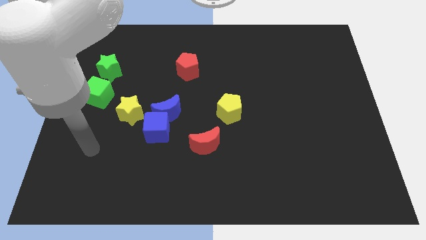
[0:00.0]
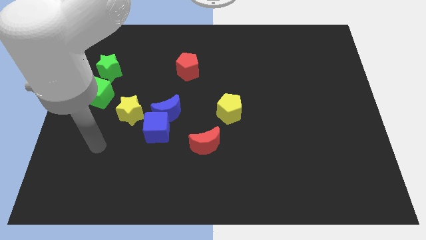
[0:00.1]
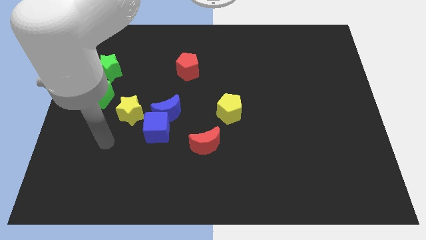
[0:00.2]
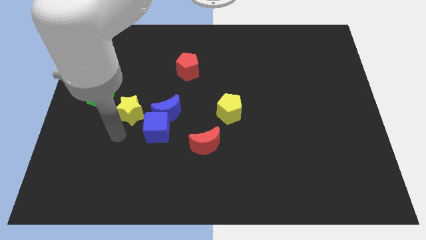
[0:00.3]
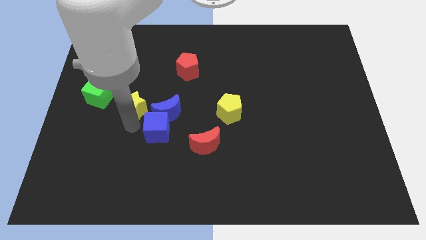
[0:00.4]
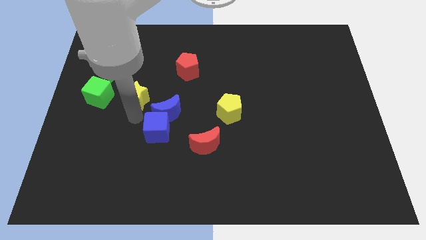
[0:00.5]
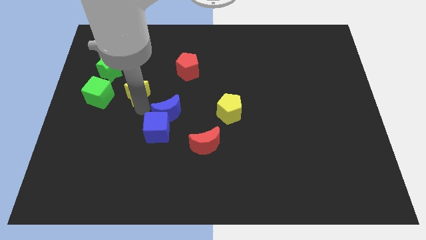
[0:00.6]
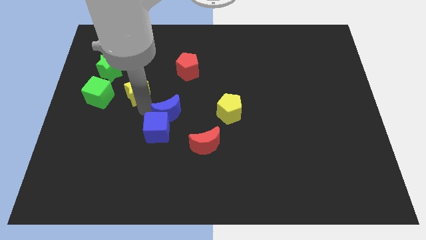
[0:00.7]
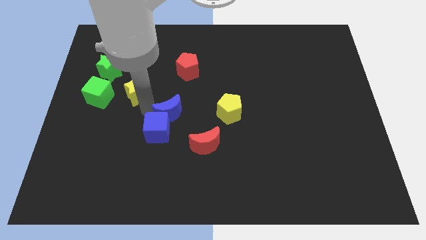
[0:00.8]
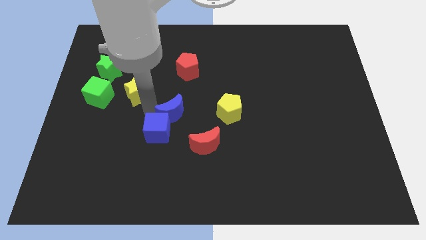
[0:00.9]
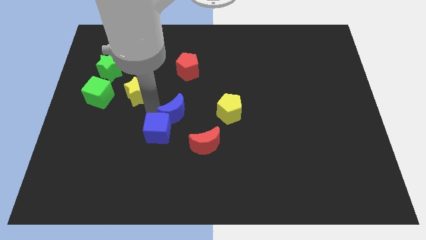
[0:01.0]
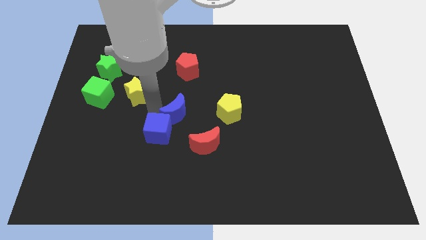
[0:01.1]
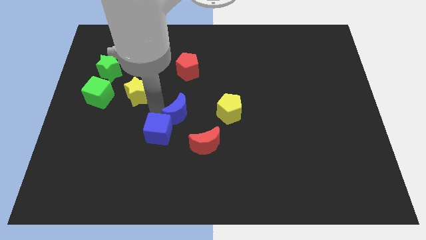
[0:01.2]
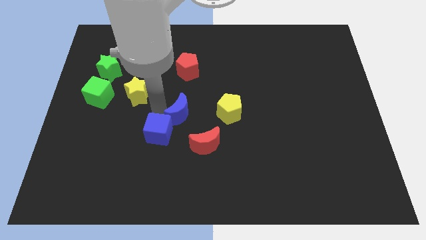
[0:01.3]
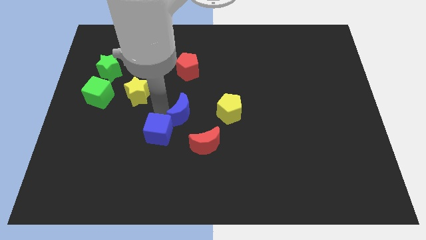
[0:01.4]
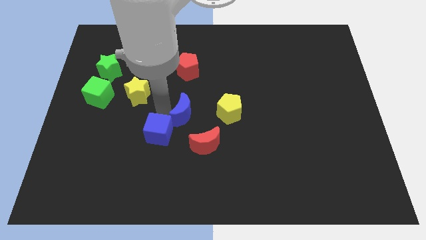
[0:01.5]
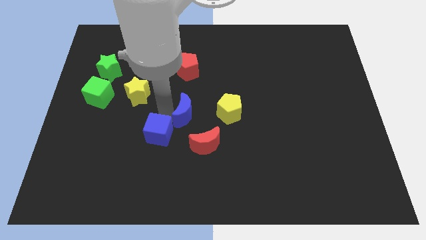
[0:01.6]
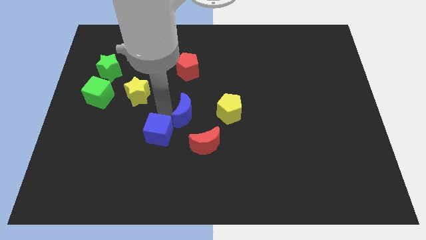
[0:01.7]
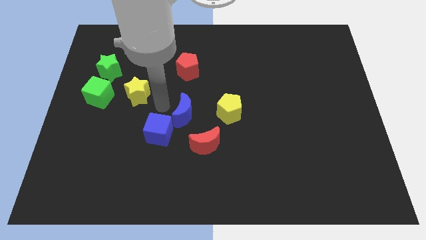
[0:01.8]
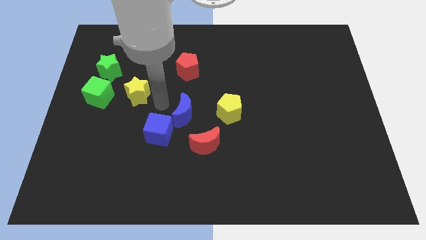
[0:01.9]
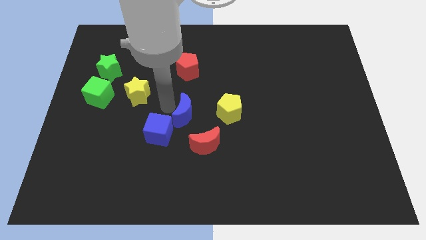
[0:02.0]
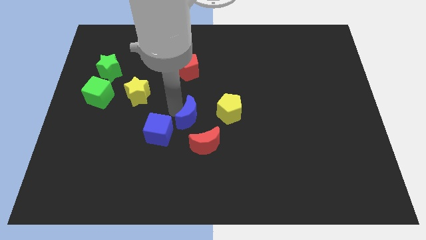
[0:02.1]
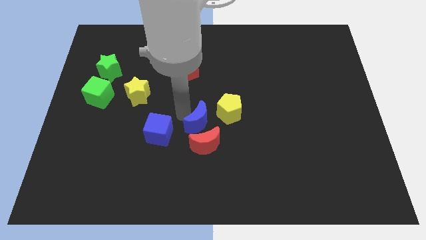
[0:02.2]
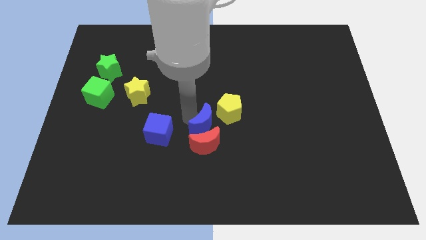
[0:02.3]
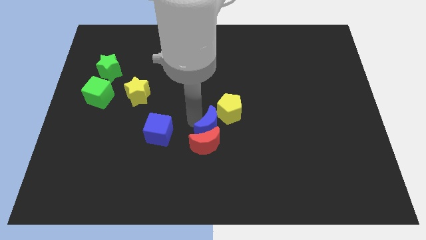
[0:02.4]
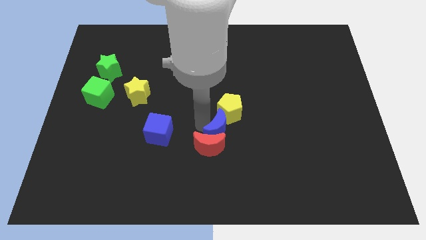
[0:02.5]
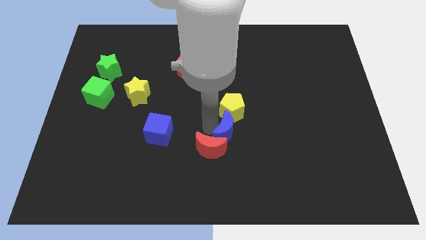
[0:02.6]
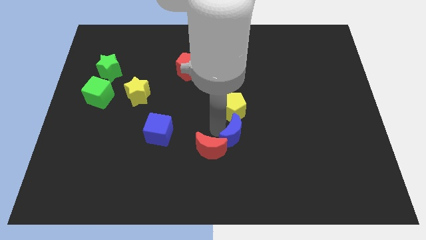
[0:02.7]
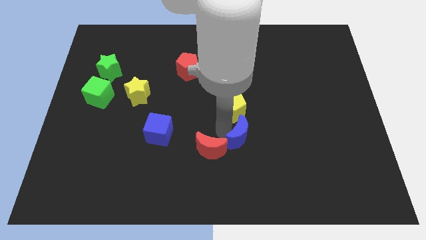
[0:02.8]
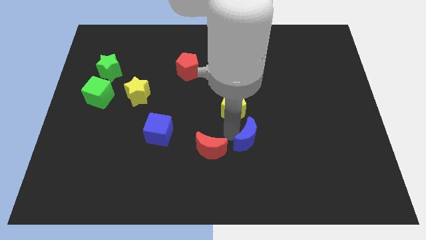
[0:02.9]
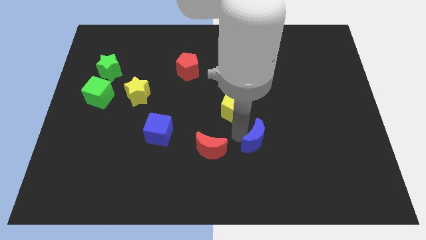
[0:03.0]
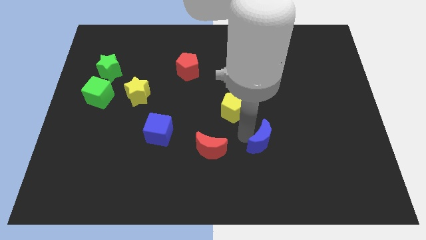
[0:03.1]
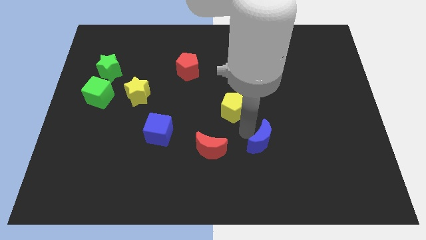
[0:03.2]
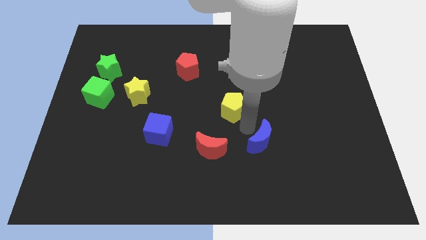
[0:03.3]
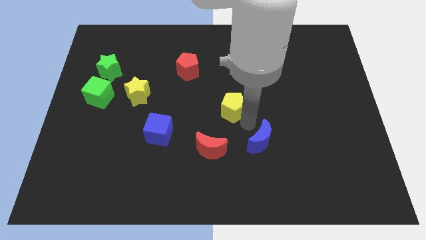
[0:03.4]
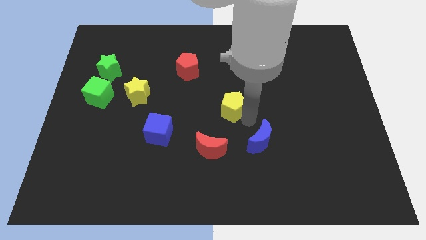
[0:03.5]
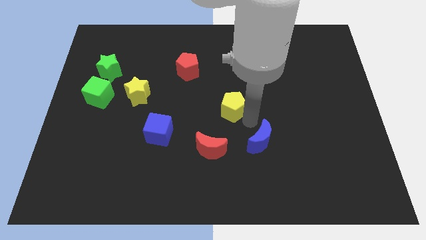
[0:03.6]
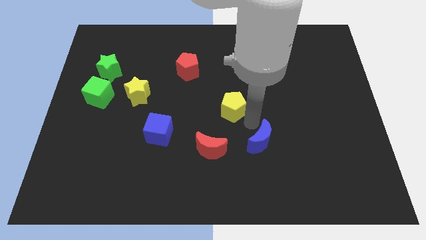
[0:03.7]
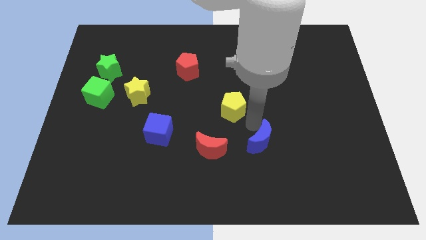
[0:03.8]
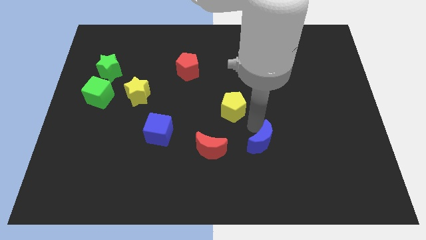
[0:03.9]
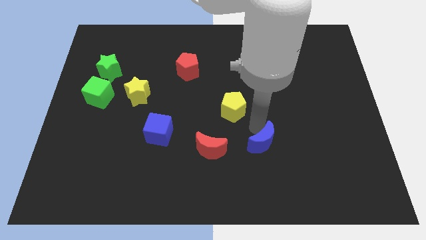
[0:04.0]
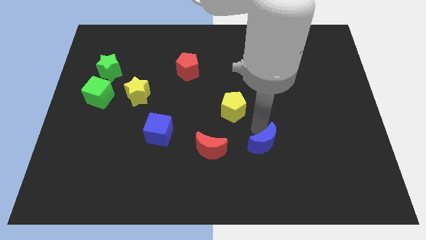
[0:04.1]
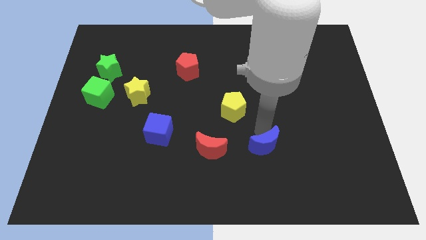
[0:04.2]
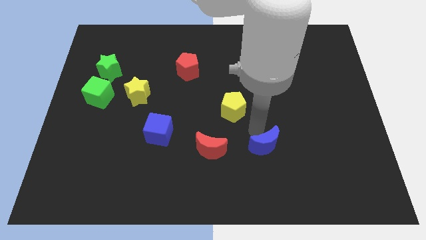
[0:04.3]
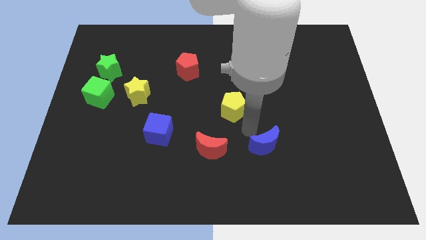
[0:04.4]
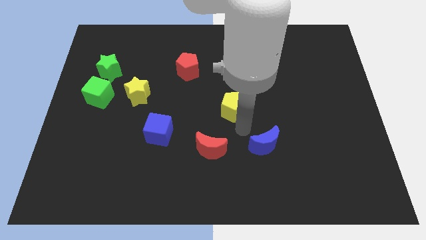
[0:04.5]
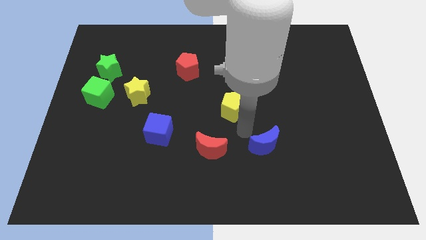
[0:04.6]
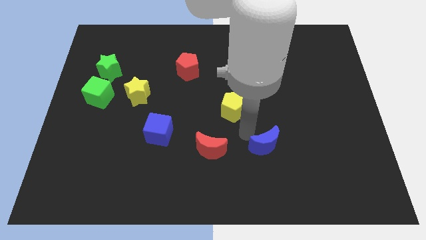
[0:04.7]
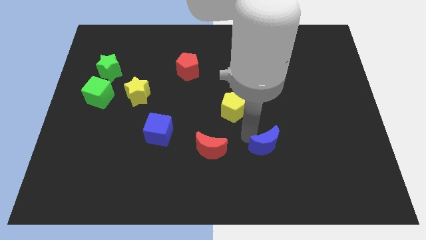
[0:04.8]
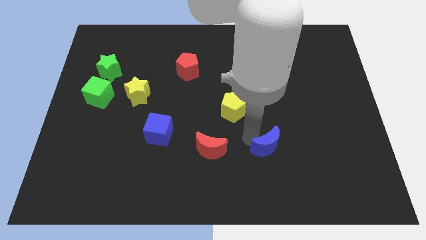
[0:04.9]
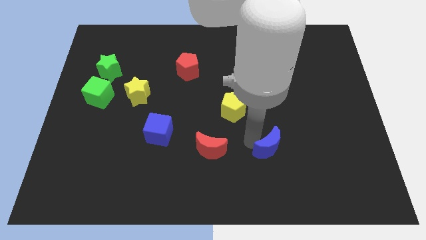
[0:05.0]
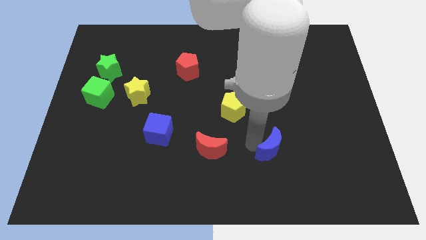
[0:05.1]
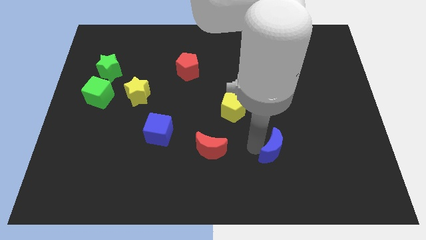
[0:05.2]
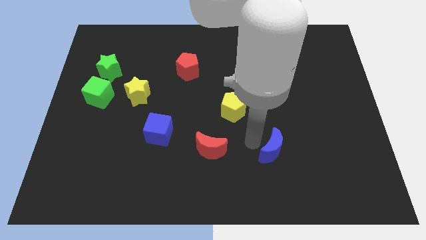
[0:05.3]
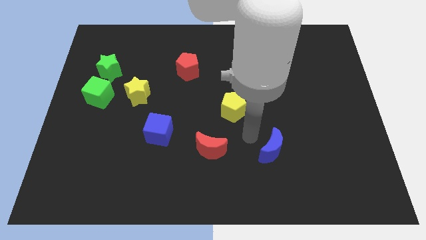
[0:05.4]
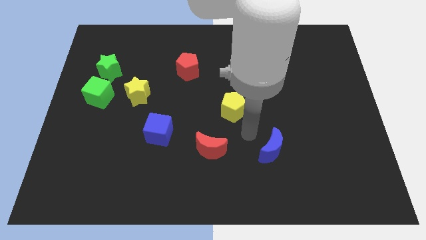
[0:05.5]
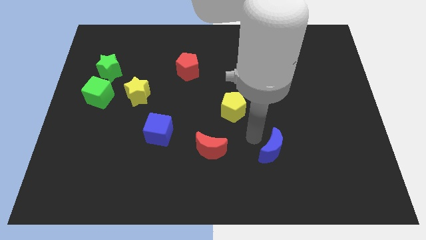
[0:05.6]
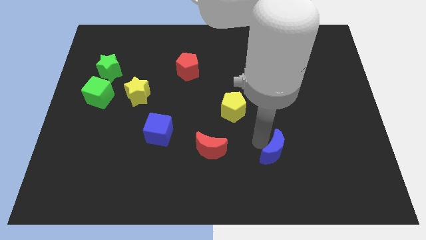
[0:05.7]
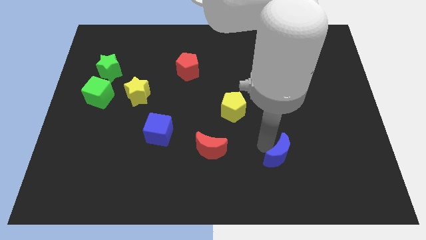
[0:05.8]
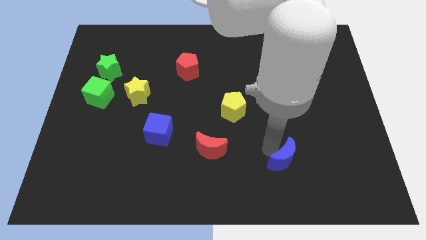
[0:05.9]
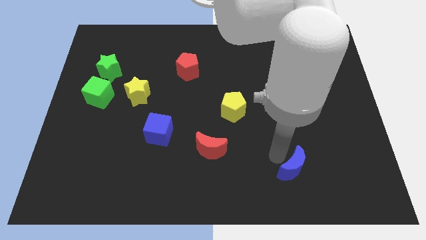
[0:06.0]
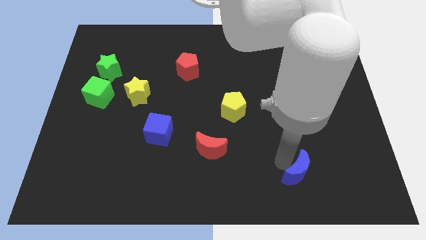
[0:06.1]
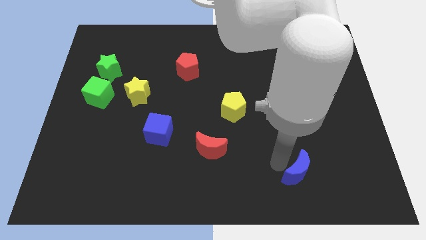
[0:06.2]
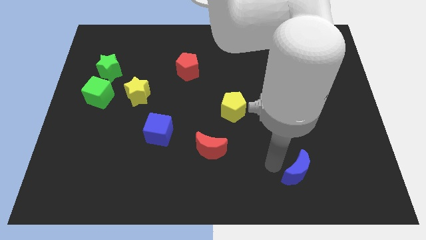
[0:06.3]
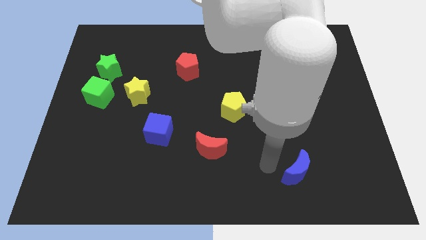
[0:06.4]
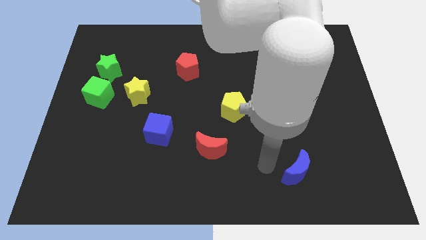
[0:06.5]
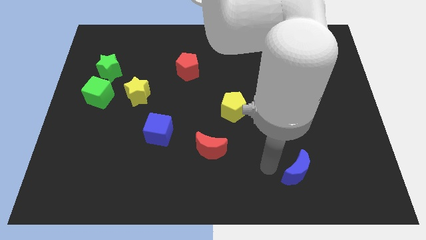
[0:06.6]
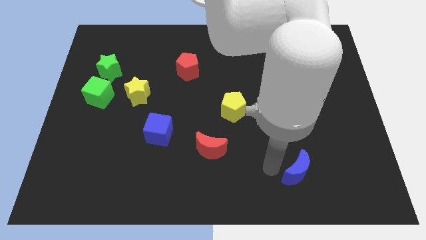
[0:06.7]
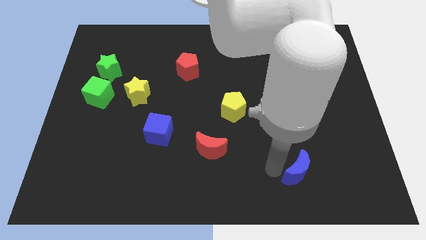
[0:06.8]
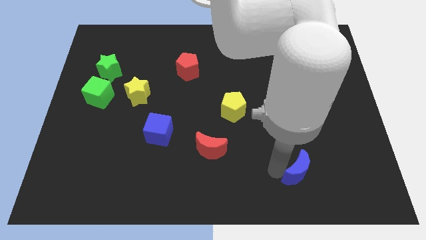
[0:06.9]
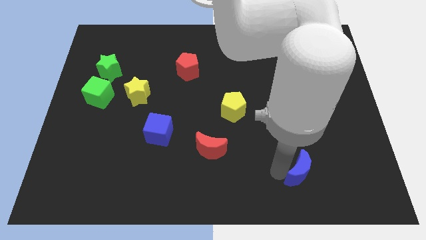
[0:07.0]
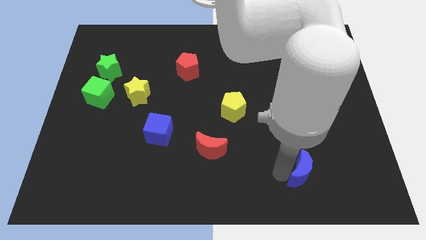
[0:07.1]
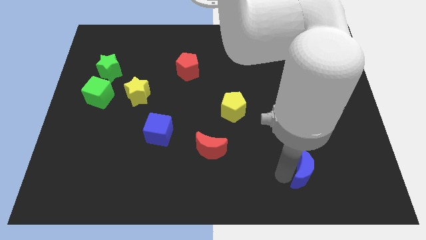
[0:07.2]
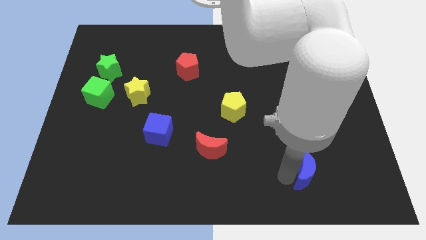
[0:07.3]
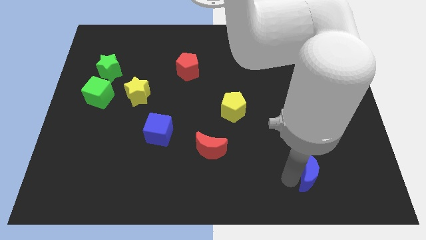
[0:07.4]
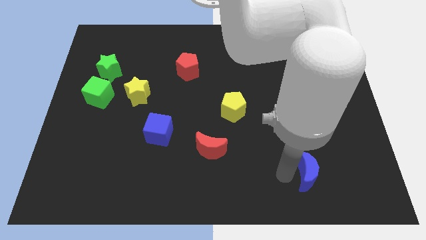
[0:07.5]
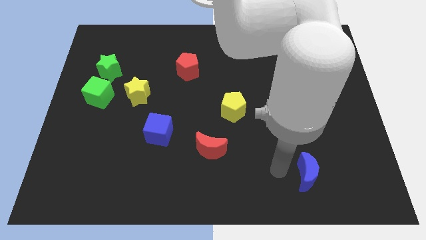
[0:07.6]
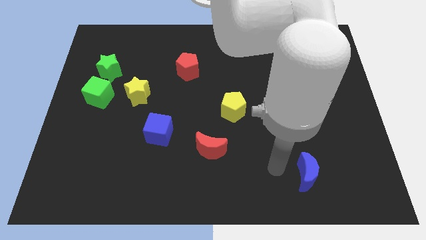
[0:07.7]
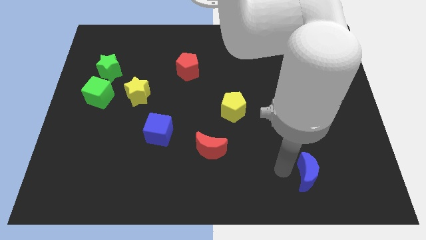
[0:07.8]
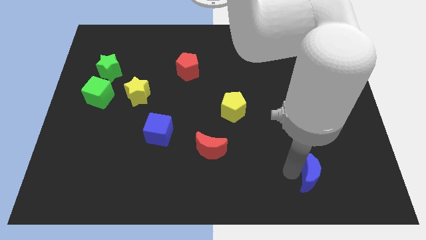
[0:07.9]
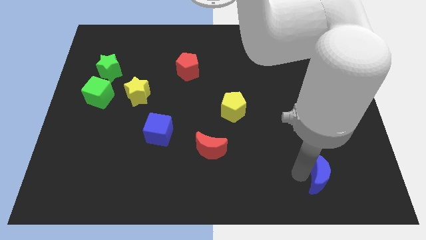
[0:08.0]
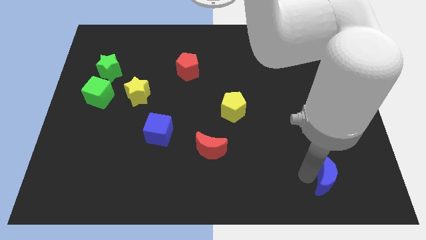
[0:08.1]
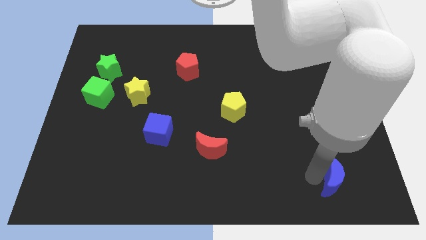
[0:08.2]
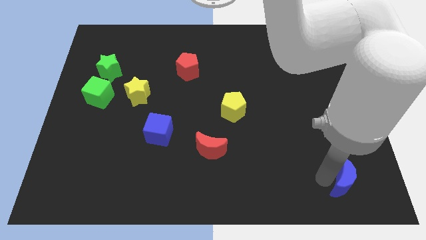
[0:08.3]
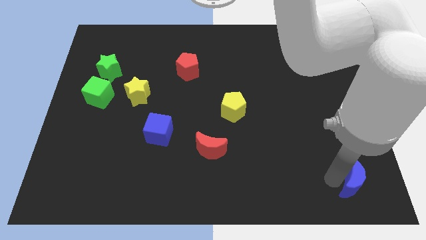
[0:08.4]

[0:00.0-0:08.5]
push the blue moon to the lower right corner
